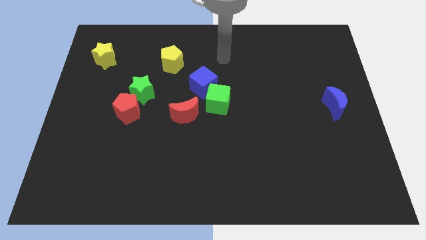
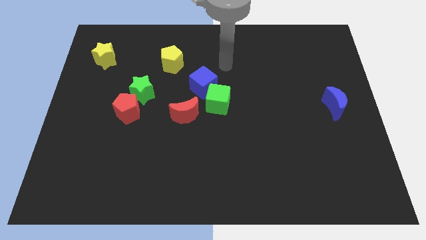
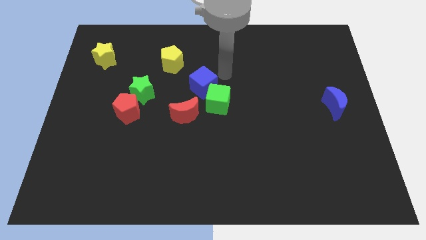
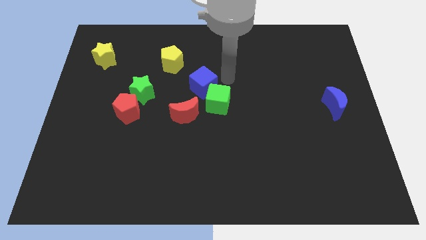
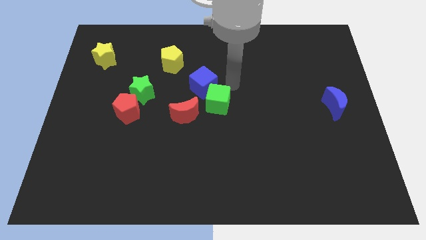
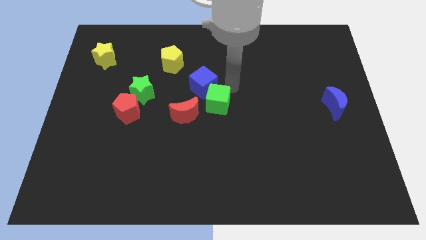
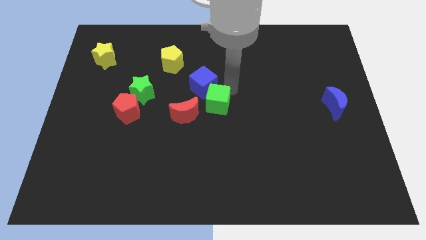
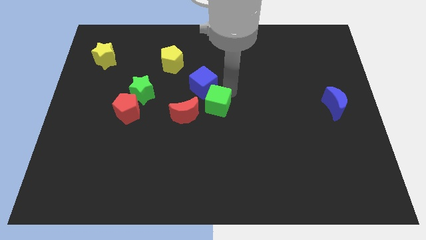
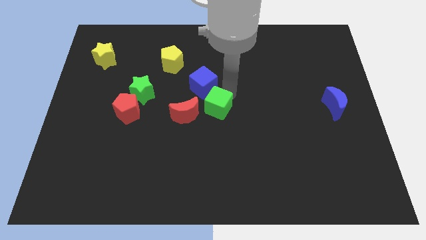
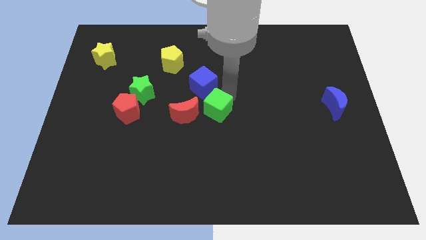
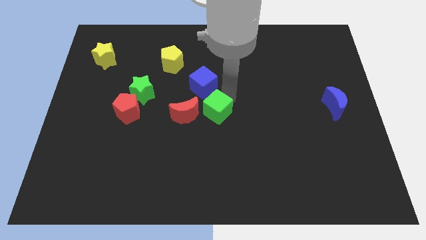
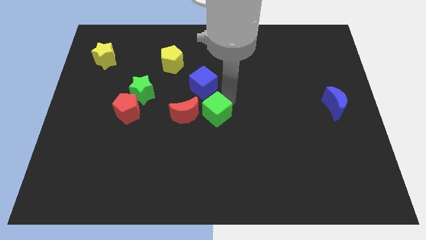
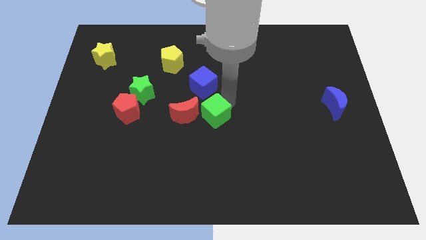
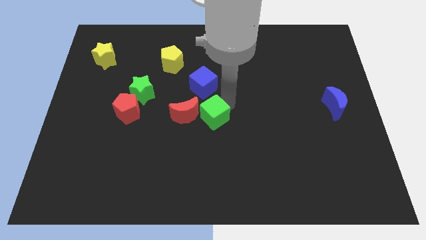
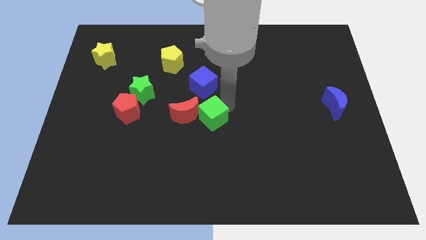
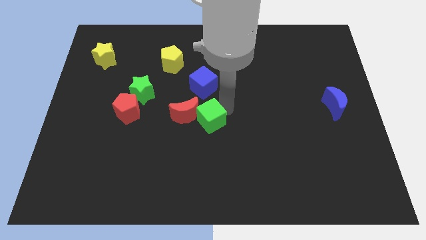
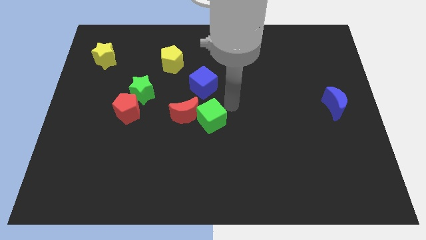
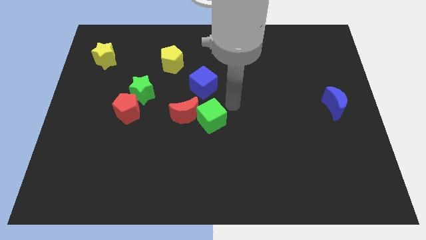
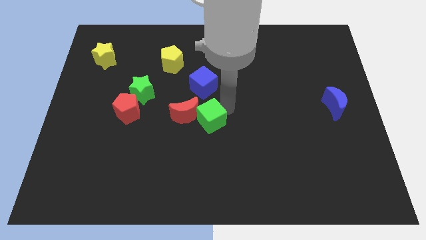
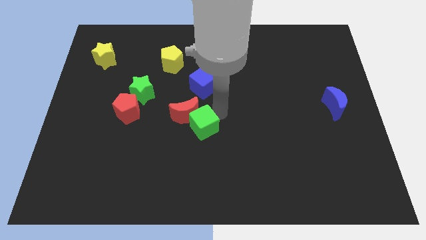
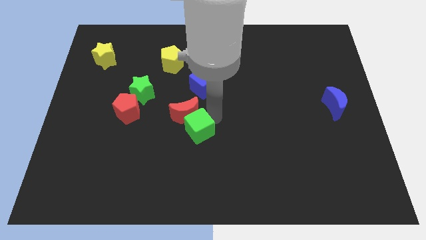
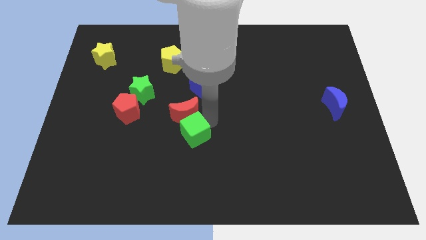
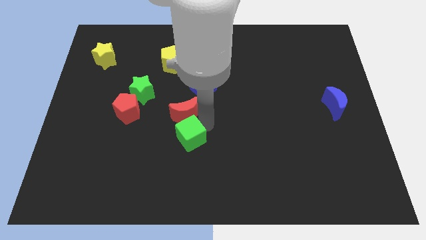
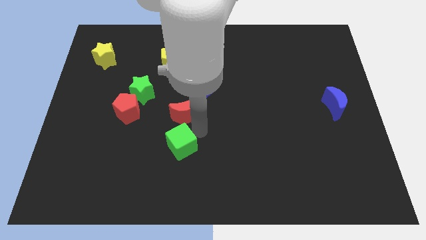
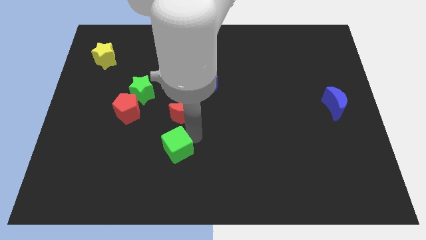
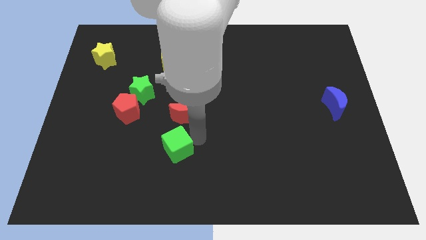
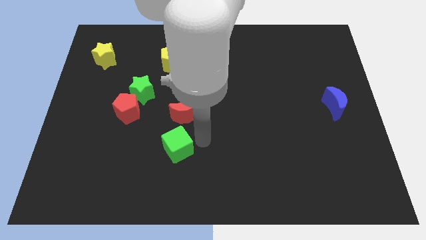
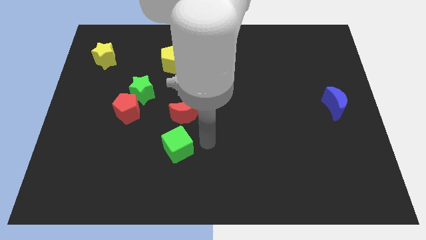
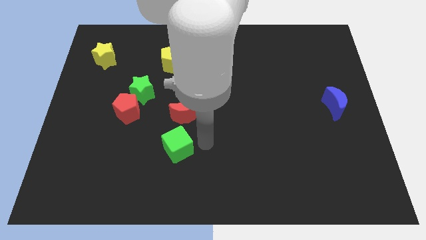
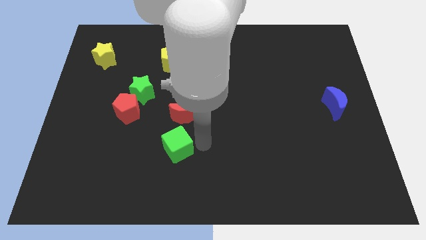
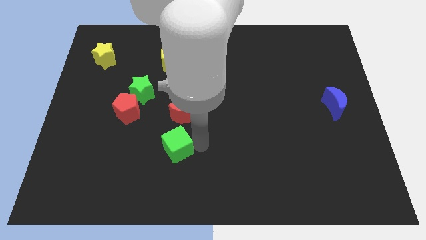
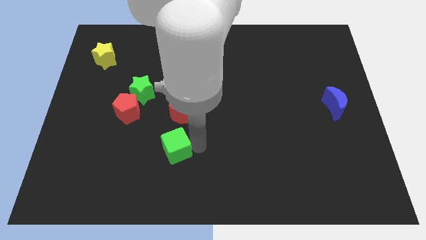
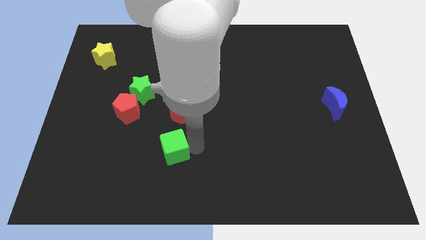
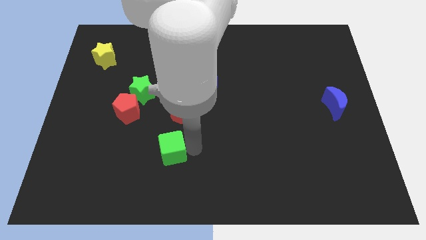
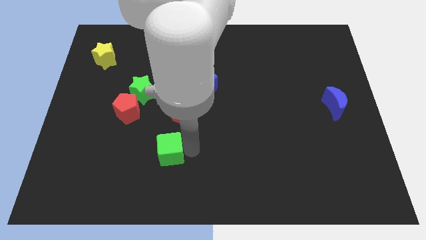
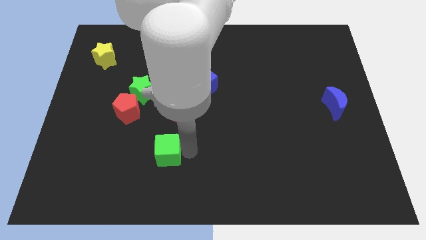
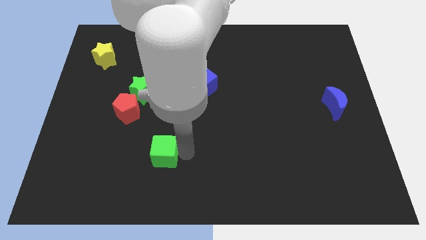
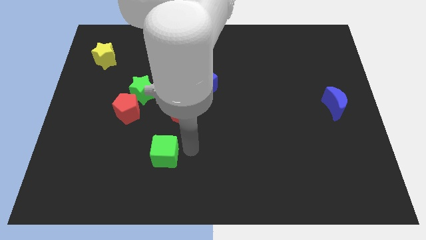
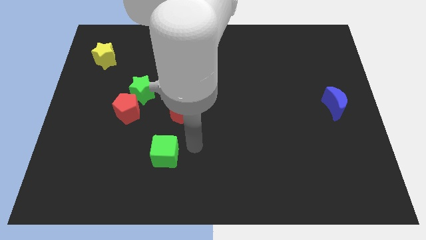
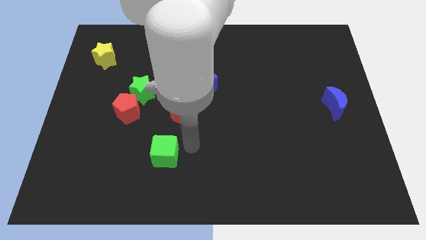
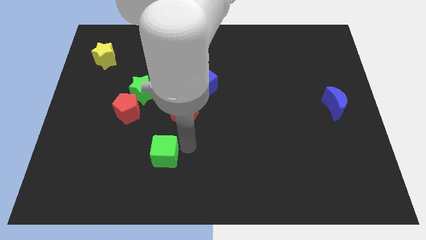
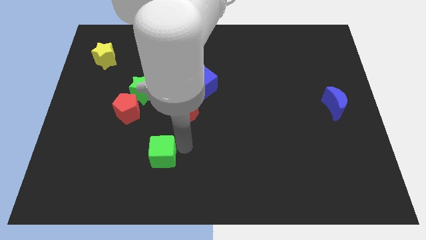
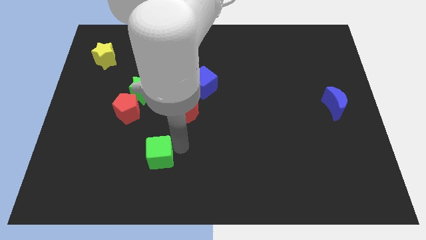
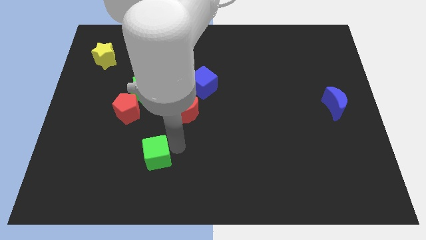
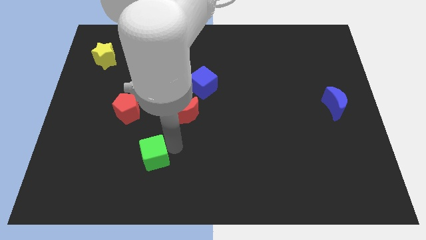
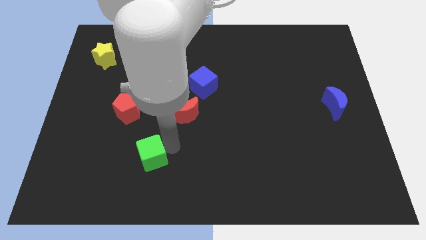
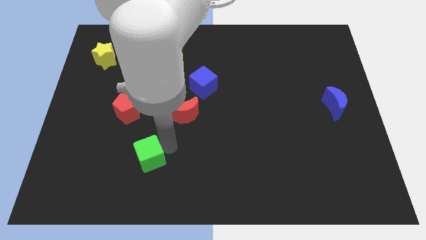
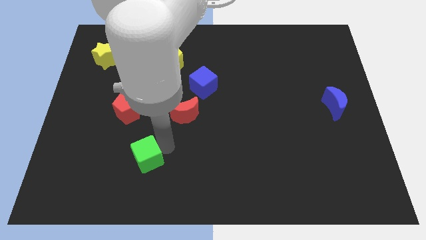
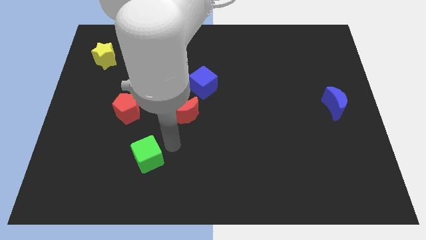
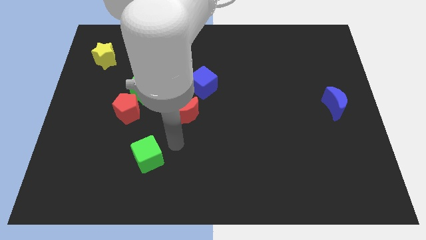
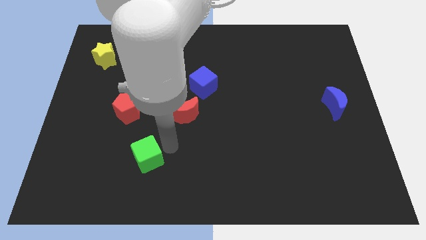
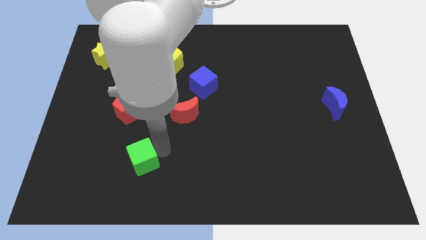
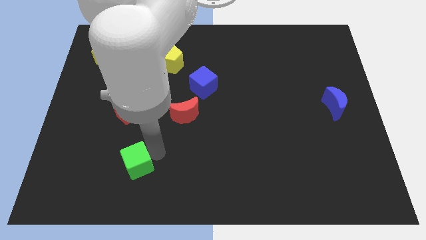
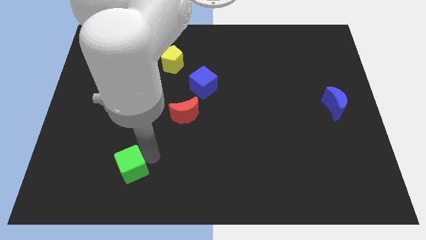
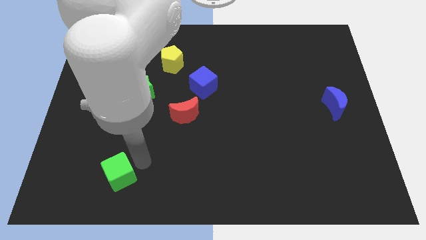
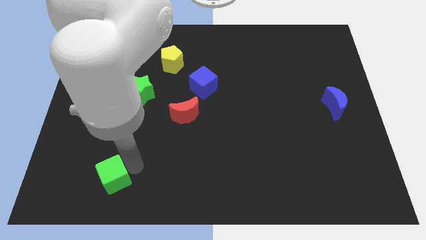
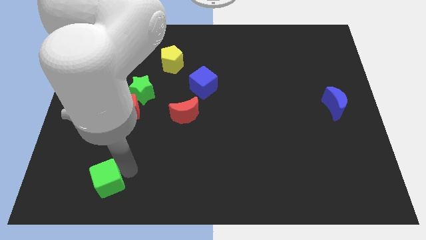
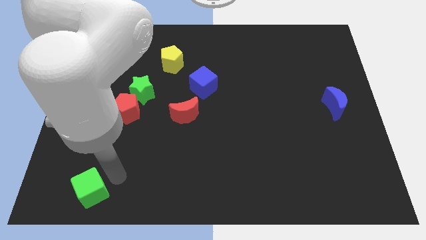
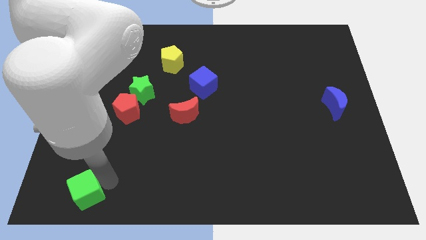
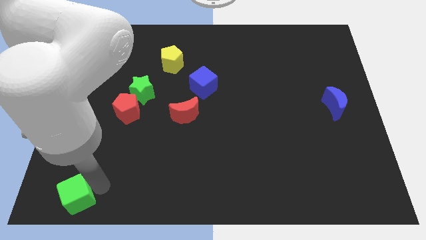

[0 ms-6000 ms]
move the green cube to the bottom left

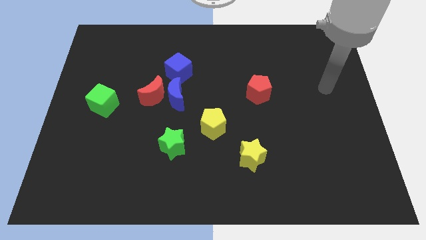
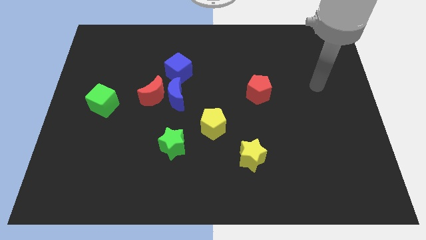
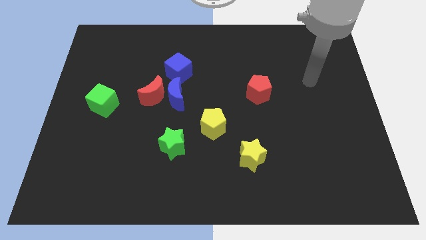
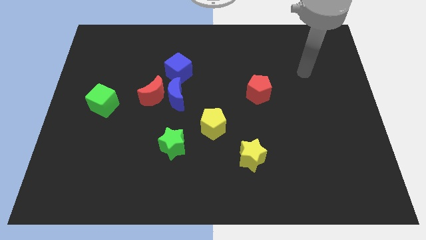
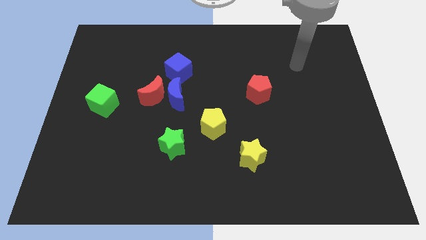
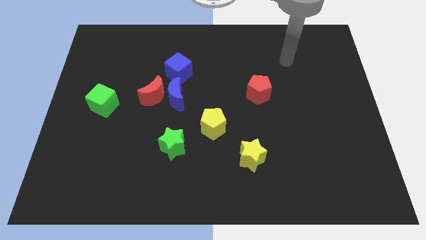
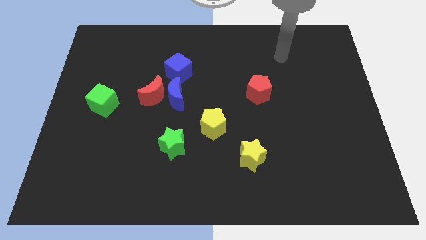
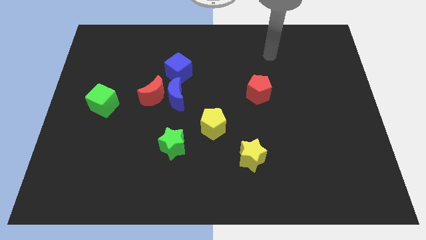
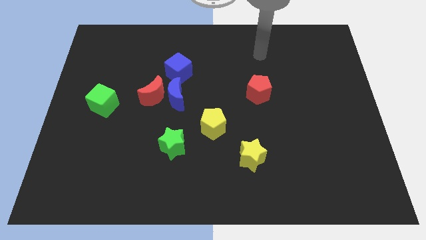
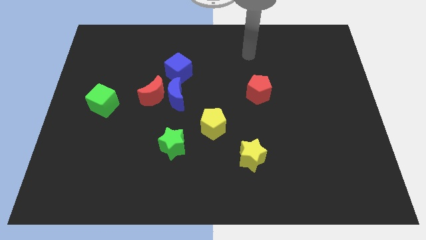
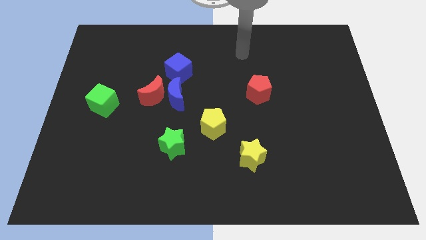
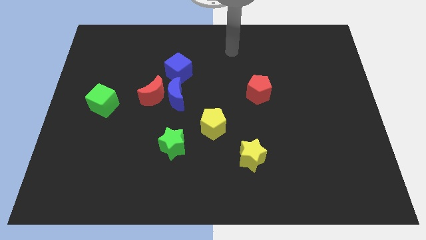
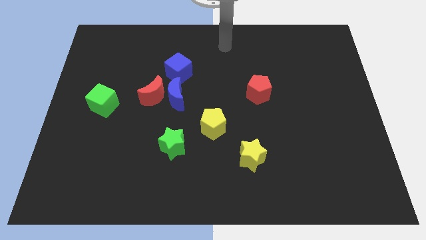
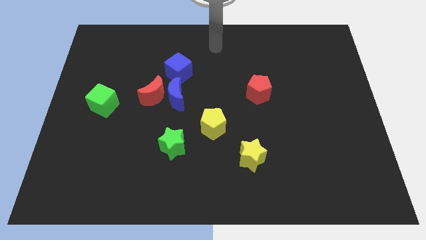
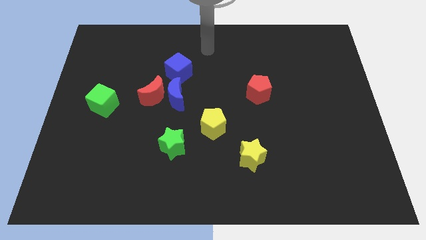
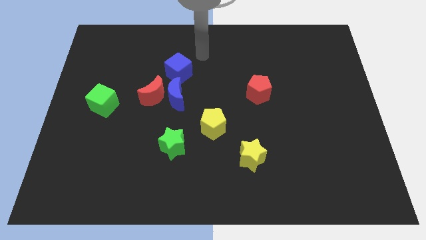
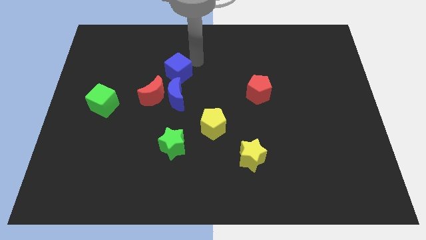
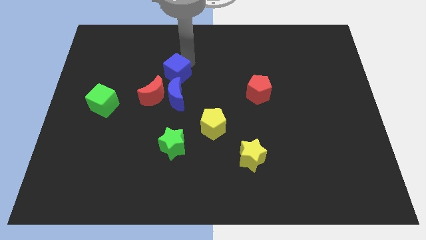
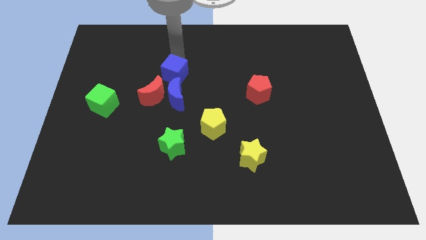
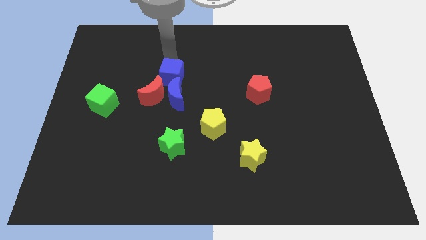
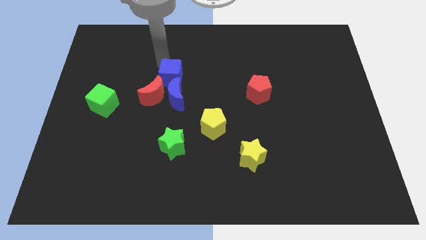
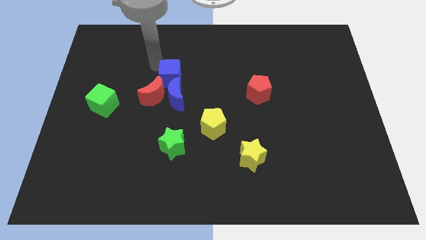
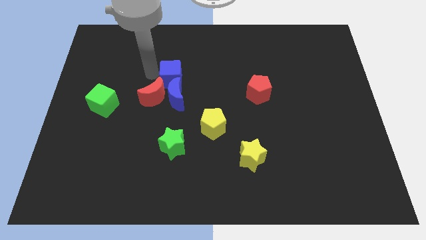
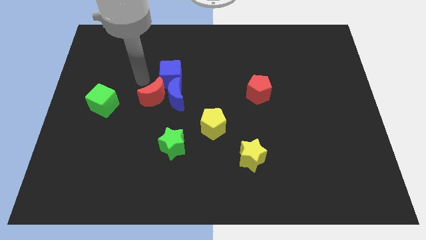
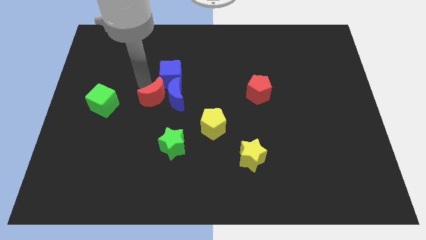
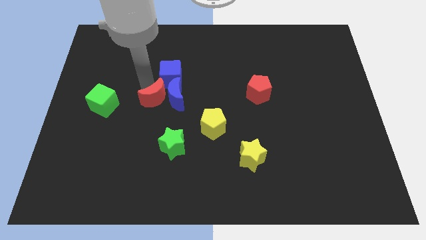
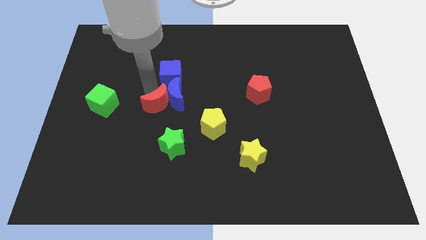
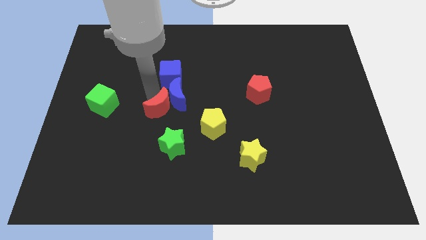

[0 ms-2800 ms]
move the red moon to the center of the board
